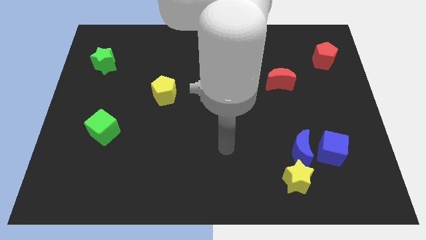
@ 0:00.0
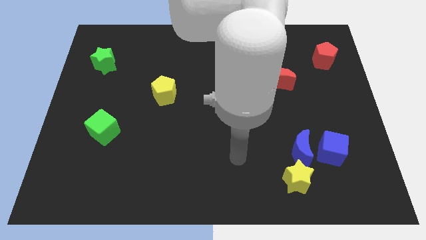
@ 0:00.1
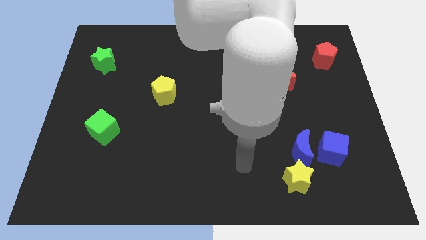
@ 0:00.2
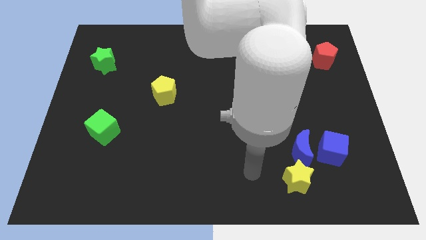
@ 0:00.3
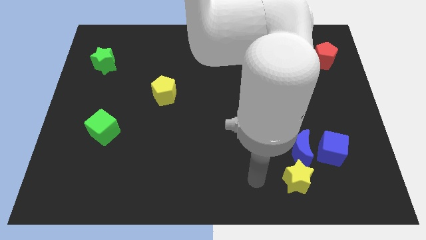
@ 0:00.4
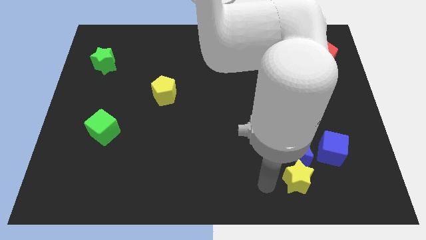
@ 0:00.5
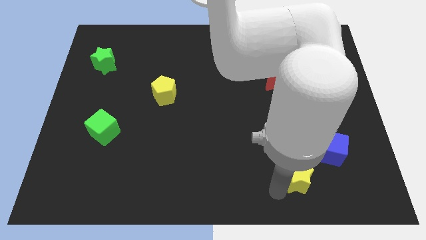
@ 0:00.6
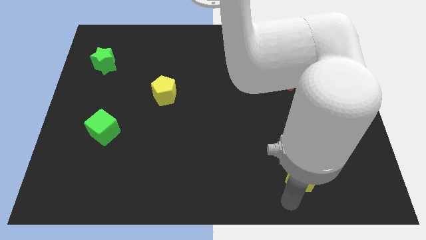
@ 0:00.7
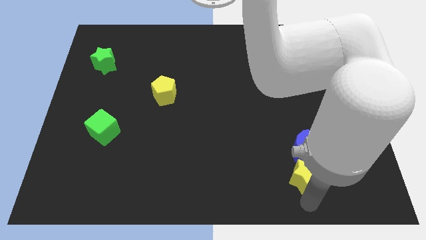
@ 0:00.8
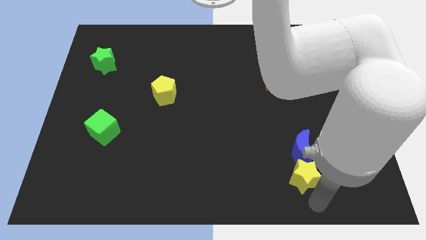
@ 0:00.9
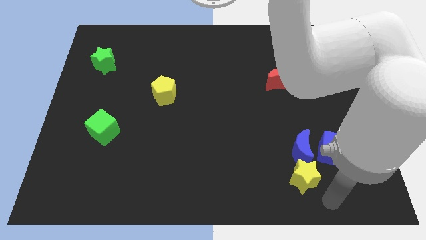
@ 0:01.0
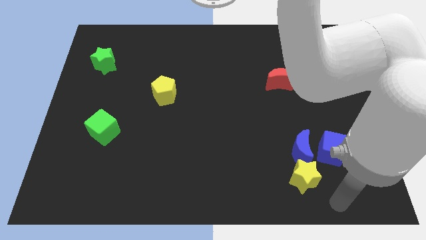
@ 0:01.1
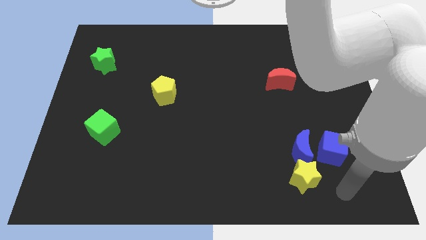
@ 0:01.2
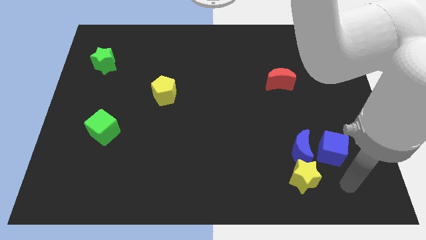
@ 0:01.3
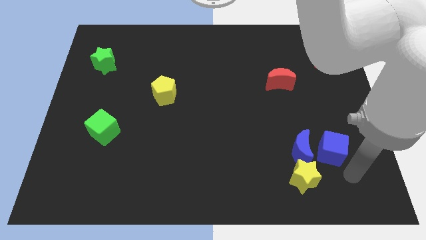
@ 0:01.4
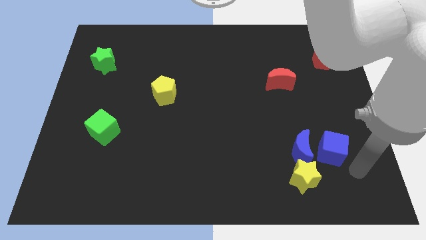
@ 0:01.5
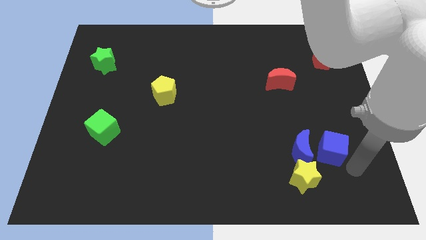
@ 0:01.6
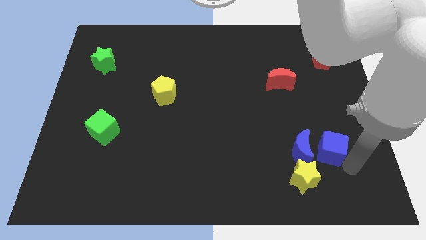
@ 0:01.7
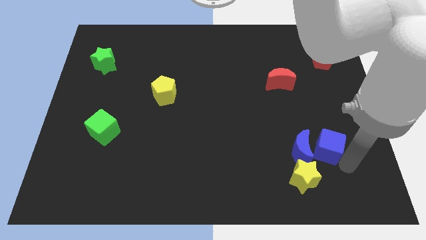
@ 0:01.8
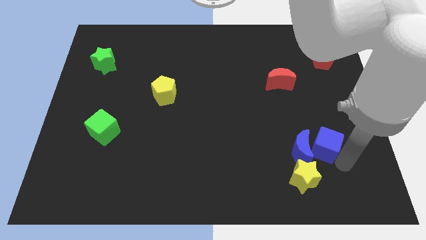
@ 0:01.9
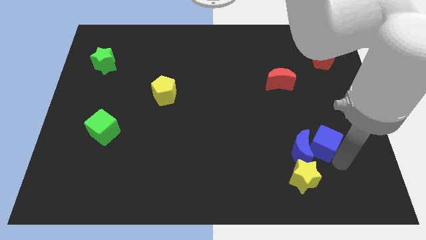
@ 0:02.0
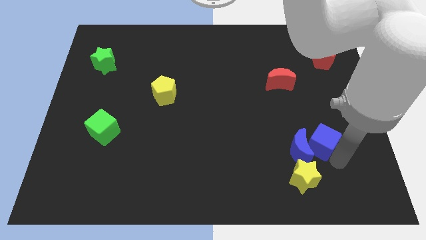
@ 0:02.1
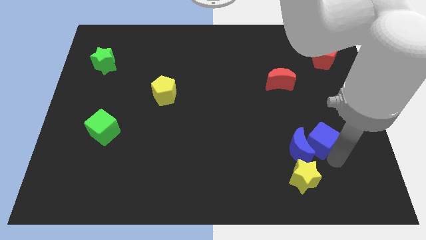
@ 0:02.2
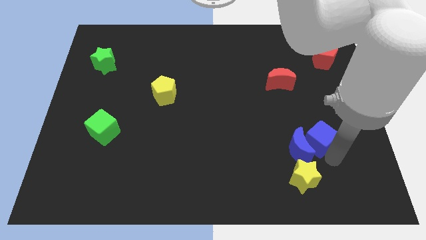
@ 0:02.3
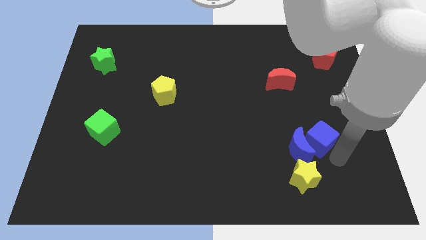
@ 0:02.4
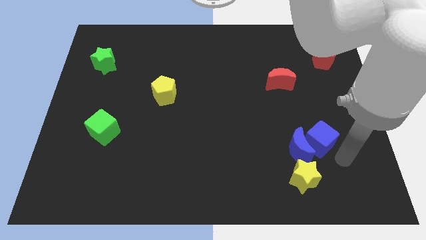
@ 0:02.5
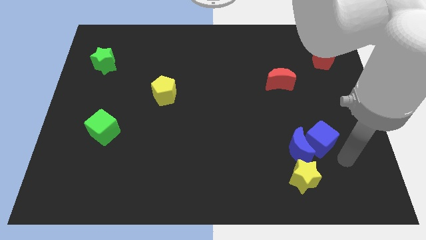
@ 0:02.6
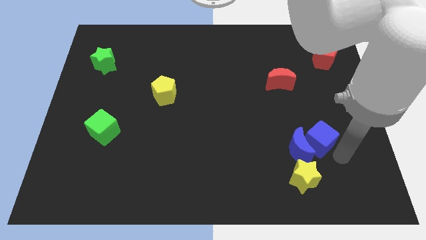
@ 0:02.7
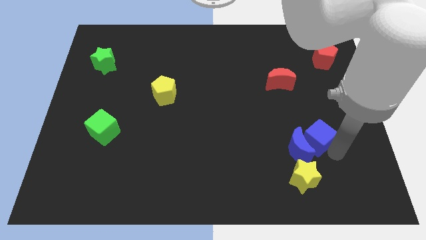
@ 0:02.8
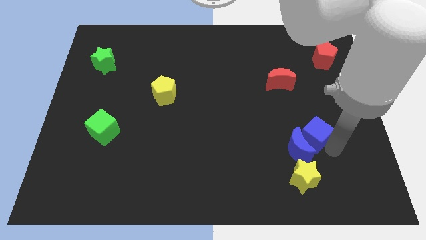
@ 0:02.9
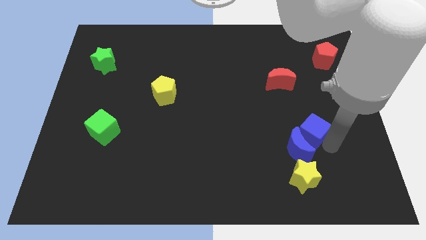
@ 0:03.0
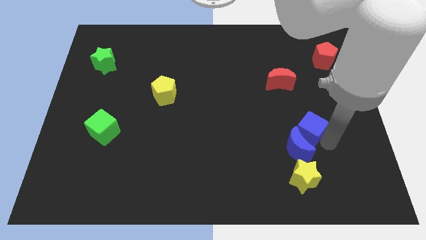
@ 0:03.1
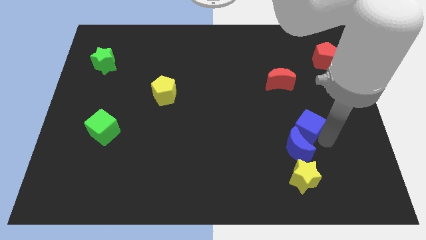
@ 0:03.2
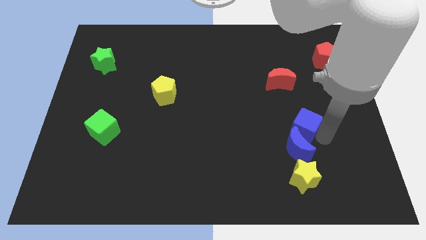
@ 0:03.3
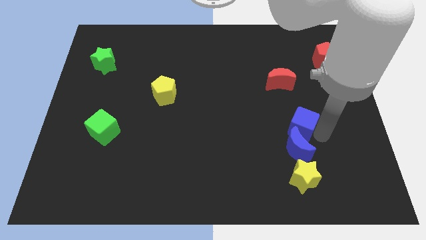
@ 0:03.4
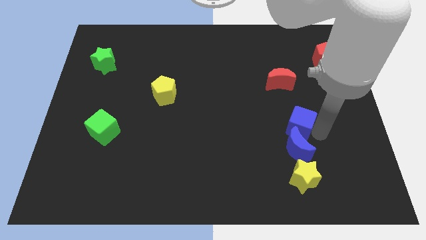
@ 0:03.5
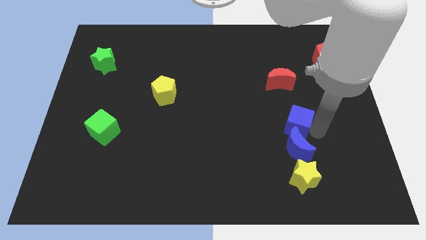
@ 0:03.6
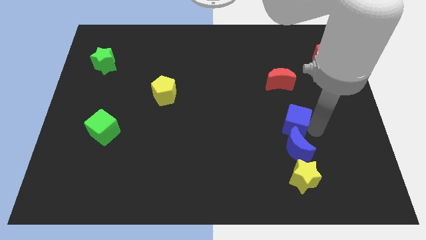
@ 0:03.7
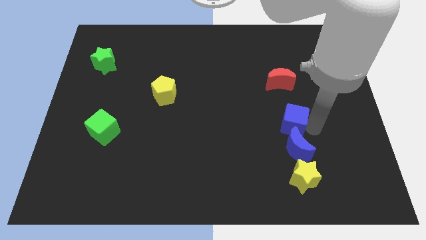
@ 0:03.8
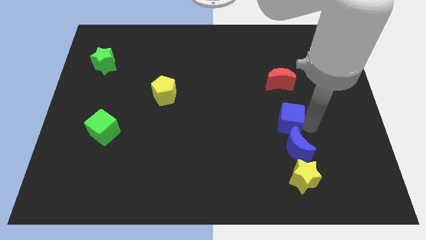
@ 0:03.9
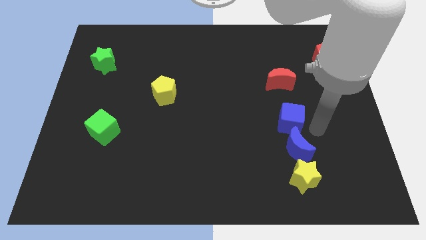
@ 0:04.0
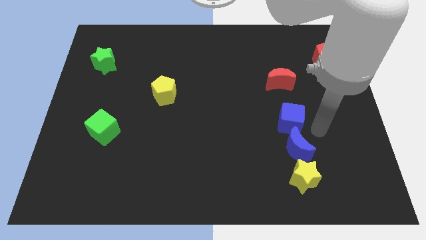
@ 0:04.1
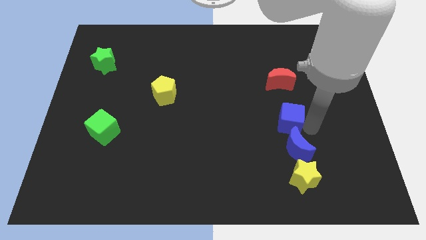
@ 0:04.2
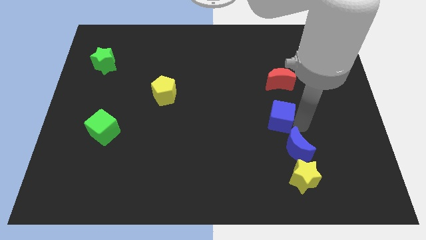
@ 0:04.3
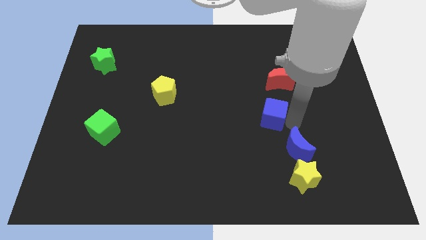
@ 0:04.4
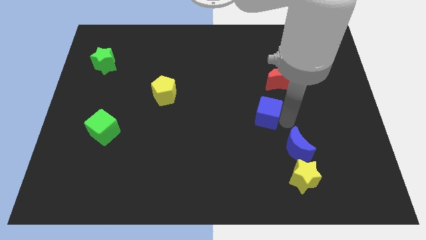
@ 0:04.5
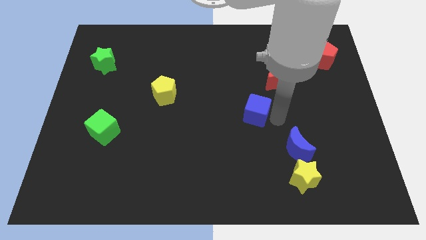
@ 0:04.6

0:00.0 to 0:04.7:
slide the blue cube to the center

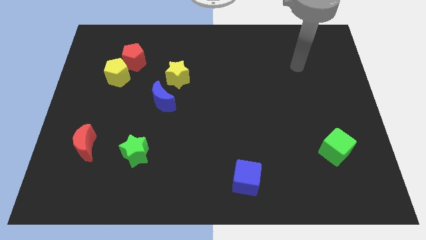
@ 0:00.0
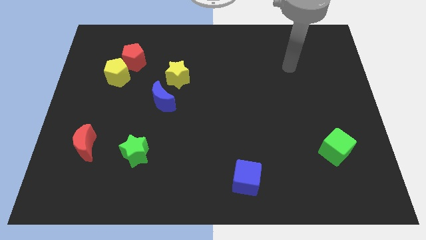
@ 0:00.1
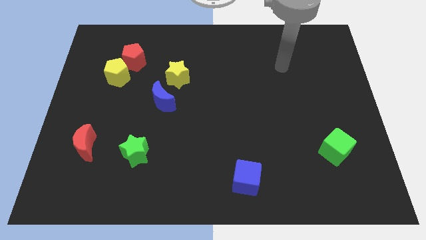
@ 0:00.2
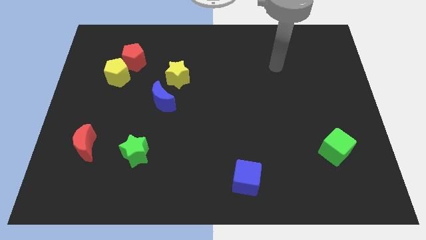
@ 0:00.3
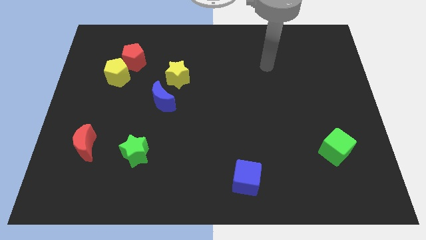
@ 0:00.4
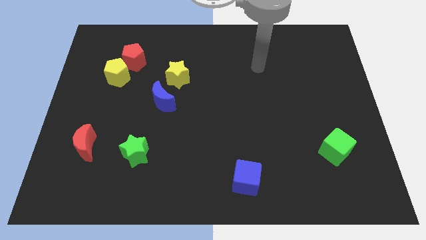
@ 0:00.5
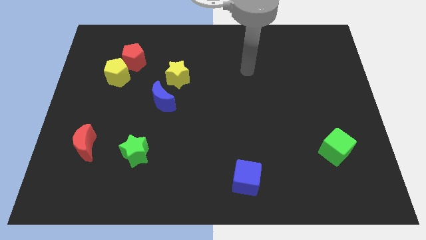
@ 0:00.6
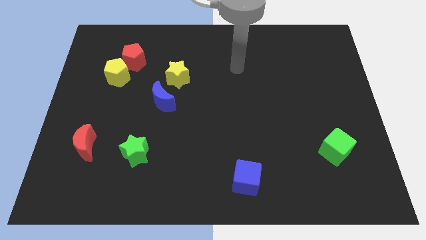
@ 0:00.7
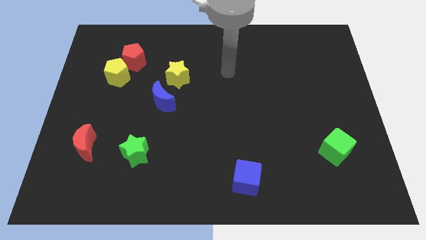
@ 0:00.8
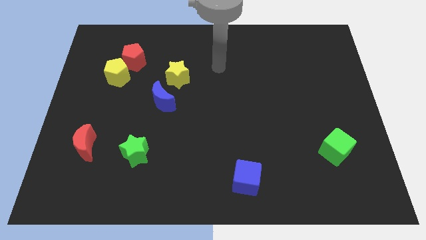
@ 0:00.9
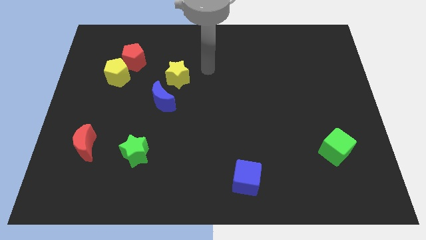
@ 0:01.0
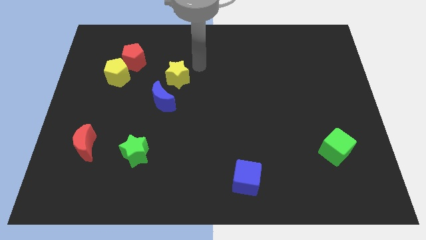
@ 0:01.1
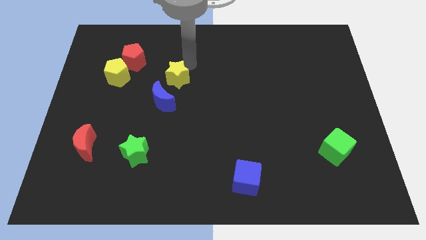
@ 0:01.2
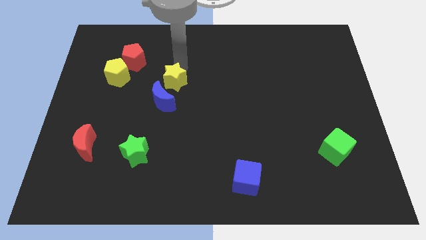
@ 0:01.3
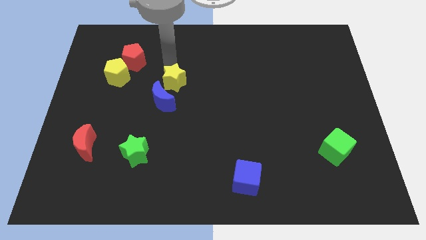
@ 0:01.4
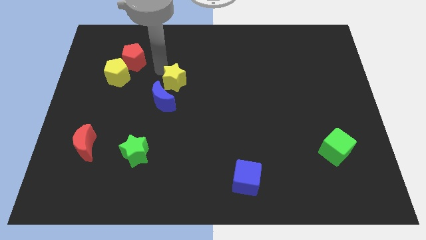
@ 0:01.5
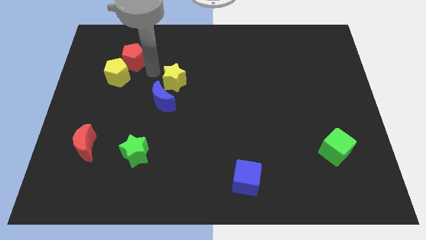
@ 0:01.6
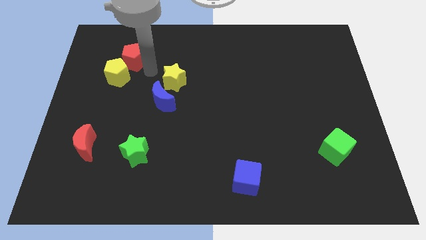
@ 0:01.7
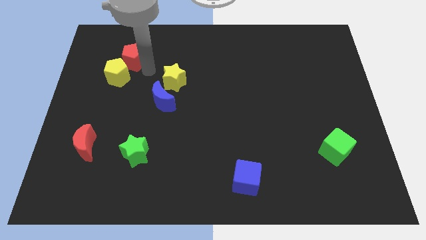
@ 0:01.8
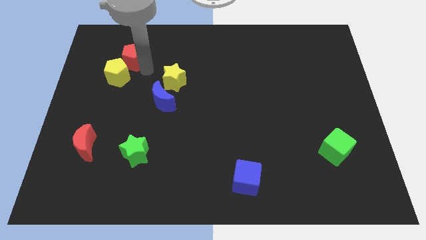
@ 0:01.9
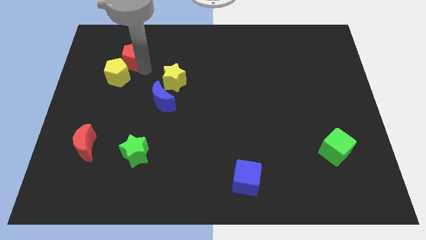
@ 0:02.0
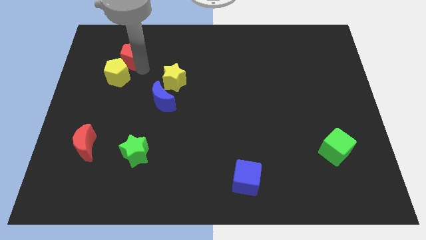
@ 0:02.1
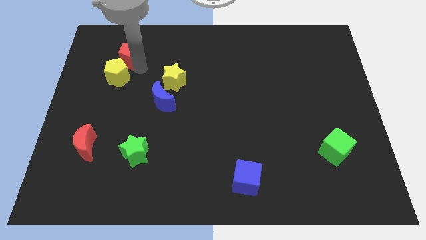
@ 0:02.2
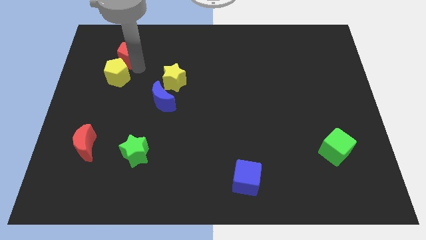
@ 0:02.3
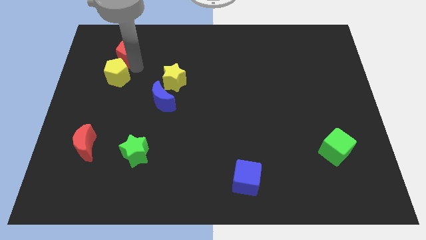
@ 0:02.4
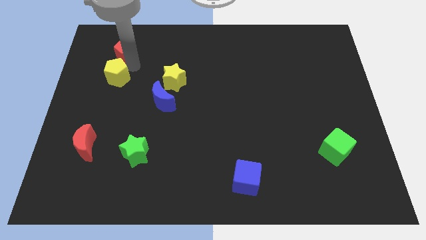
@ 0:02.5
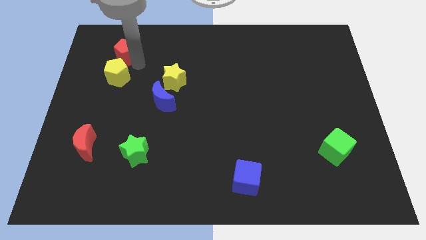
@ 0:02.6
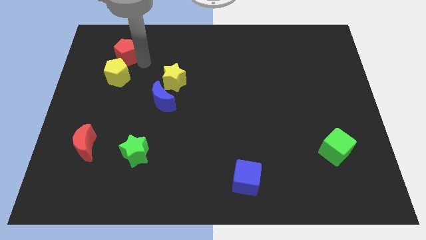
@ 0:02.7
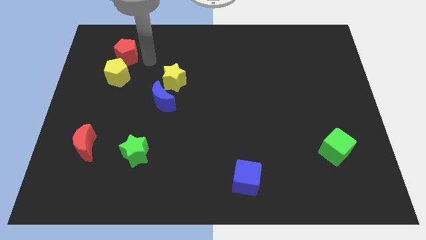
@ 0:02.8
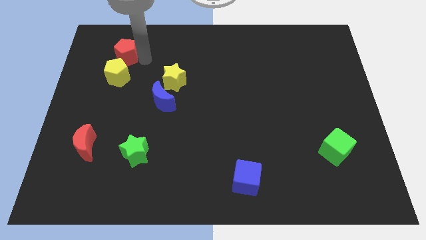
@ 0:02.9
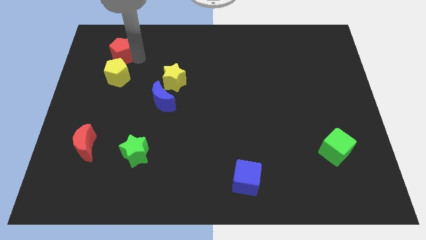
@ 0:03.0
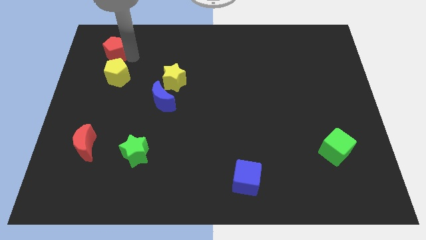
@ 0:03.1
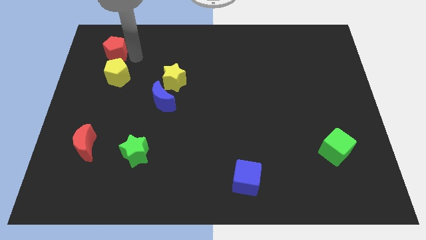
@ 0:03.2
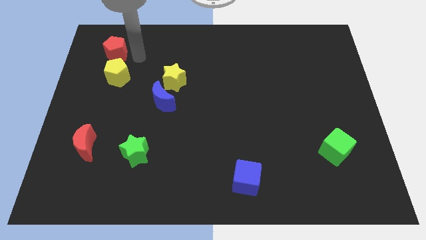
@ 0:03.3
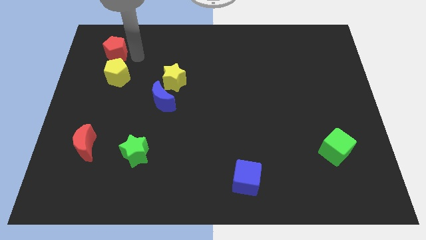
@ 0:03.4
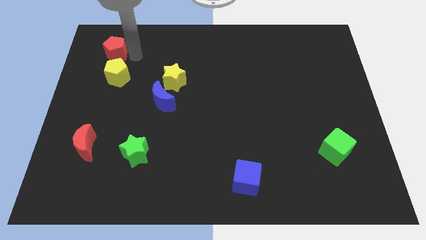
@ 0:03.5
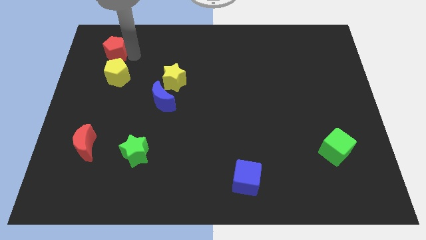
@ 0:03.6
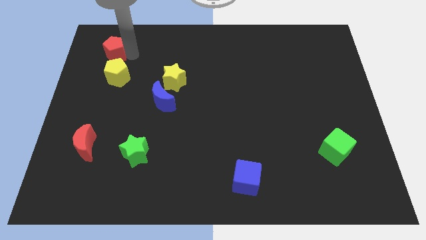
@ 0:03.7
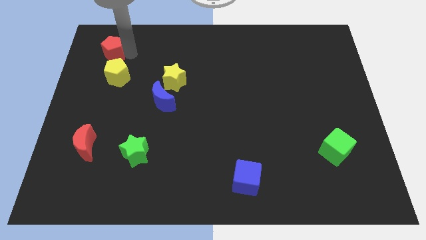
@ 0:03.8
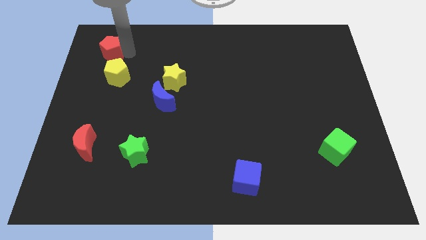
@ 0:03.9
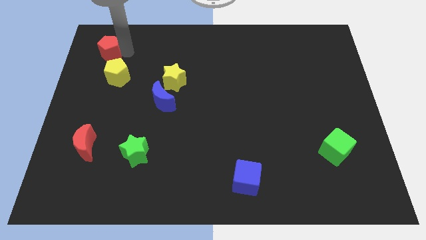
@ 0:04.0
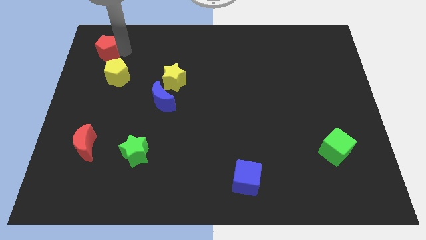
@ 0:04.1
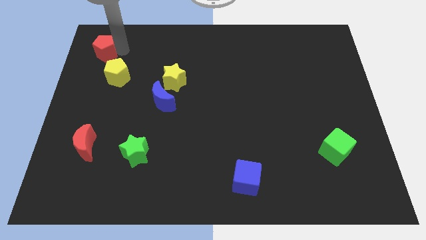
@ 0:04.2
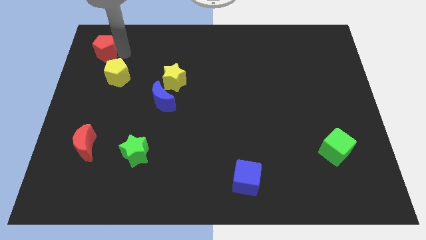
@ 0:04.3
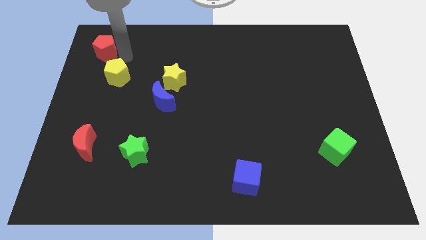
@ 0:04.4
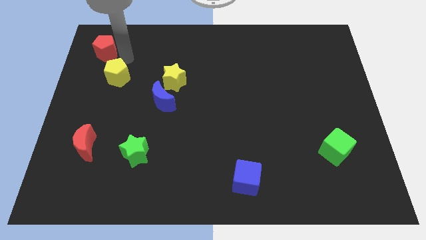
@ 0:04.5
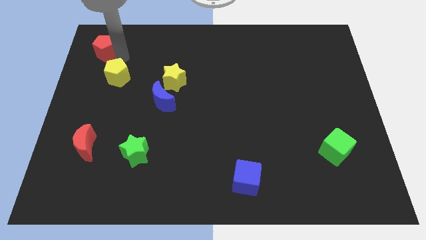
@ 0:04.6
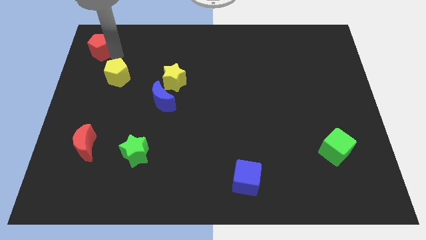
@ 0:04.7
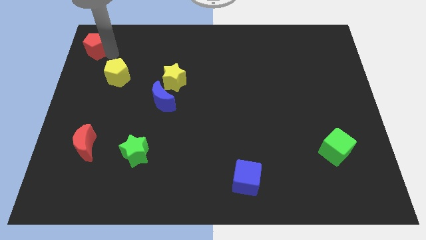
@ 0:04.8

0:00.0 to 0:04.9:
move the red pentagon to the top left
